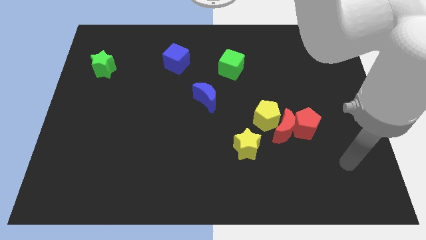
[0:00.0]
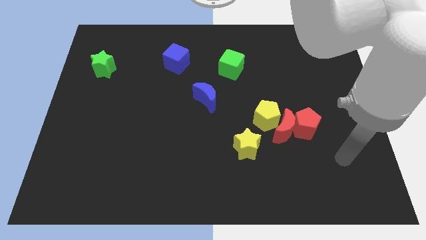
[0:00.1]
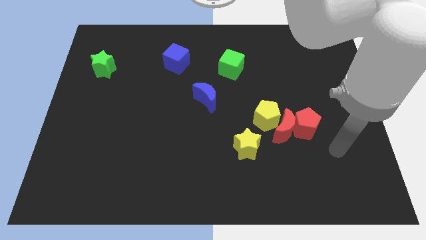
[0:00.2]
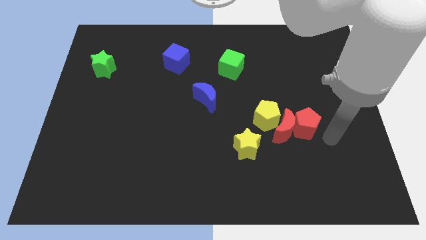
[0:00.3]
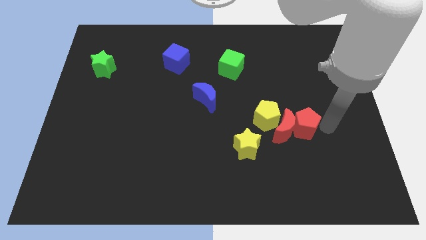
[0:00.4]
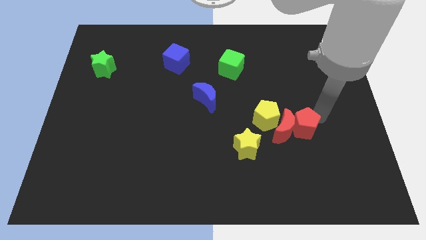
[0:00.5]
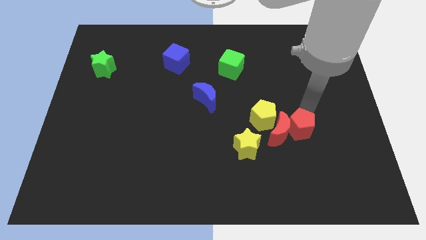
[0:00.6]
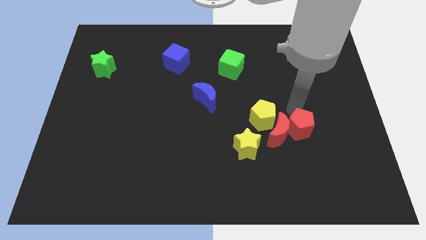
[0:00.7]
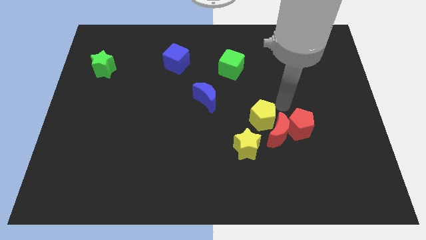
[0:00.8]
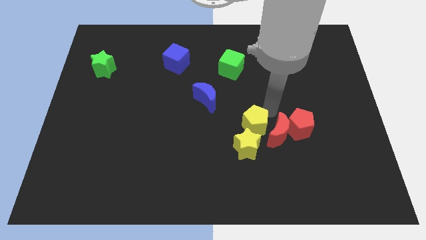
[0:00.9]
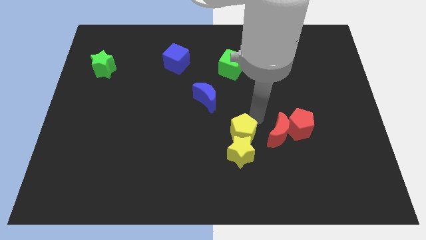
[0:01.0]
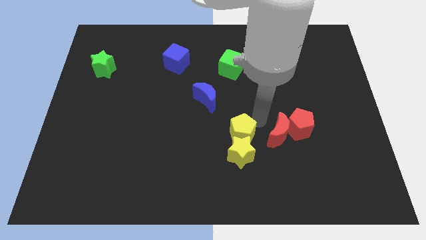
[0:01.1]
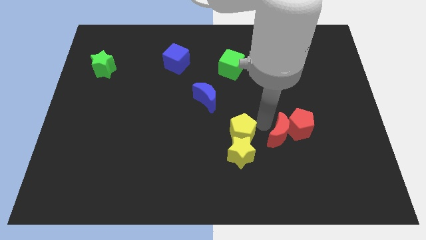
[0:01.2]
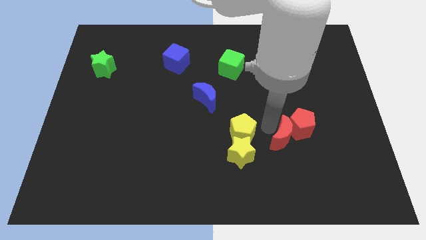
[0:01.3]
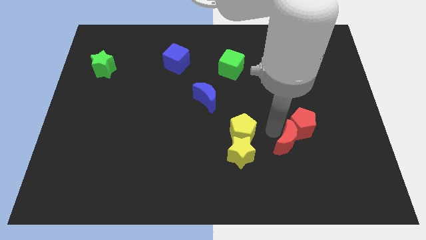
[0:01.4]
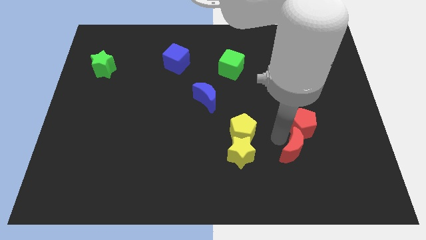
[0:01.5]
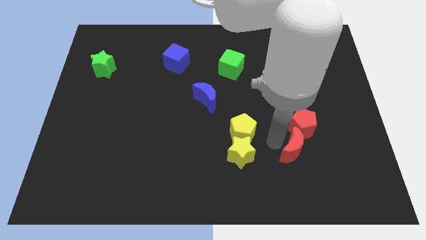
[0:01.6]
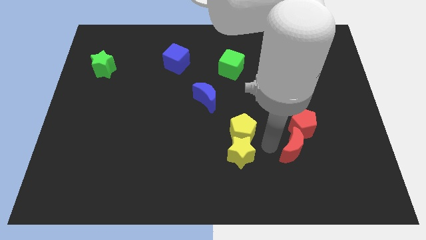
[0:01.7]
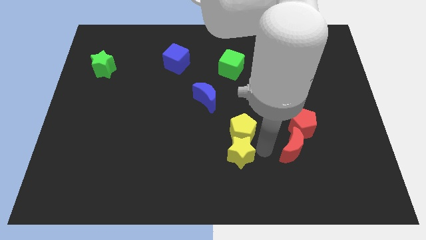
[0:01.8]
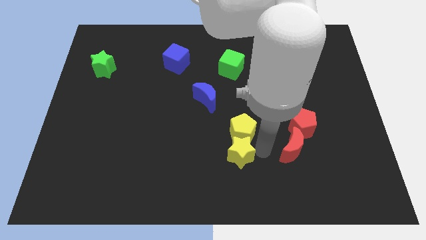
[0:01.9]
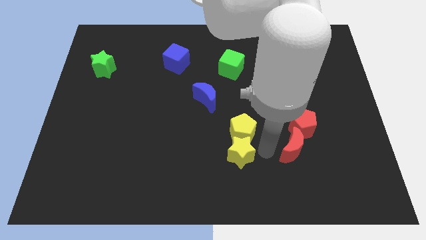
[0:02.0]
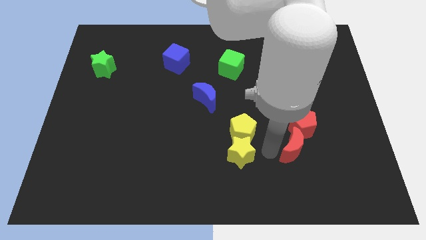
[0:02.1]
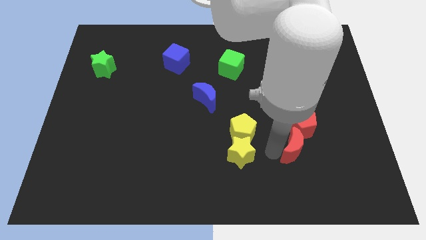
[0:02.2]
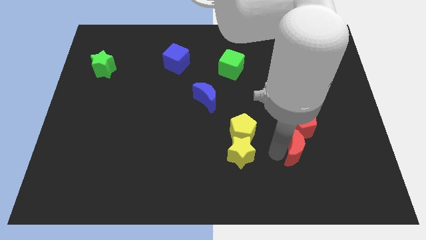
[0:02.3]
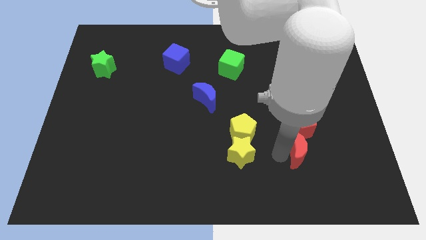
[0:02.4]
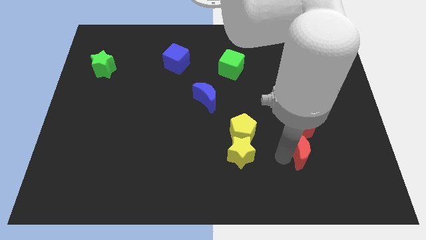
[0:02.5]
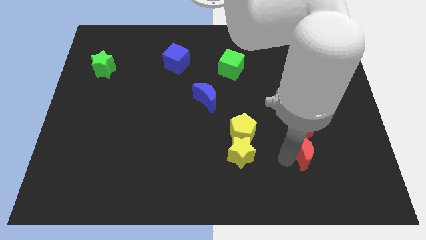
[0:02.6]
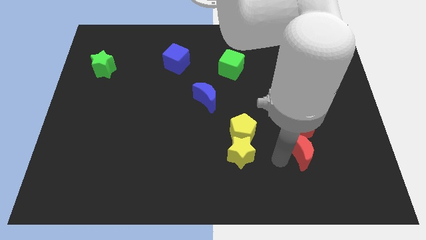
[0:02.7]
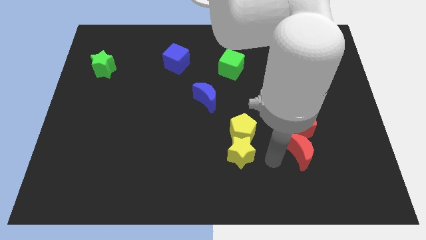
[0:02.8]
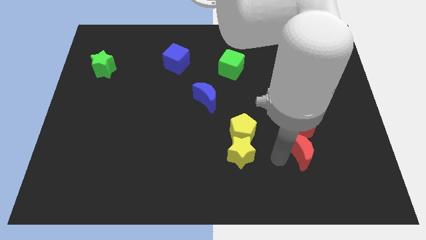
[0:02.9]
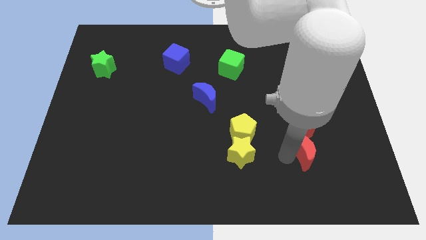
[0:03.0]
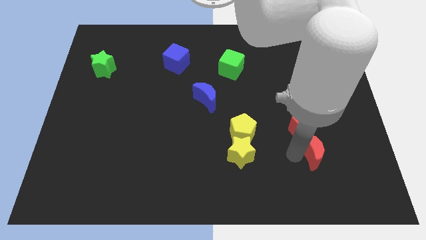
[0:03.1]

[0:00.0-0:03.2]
pull the red moon apart from the group of blocks

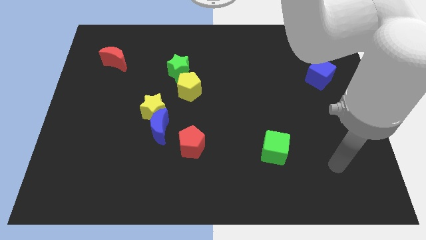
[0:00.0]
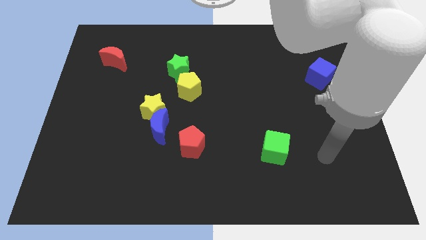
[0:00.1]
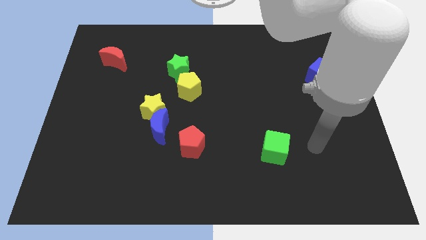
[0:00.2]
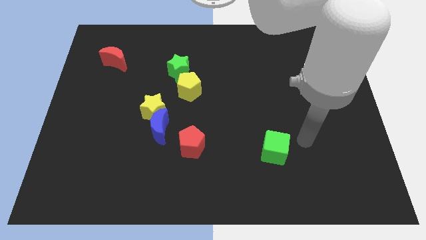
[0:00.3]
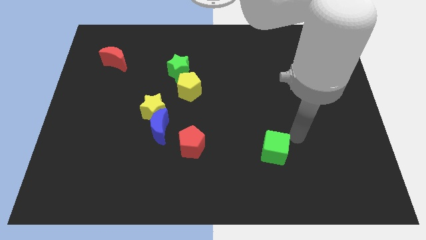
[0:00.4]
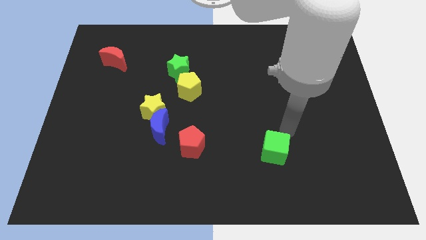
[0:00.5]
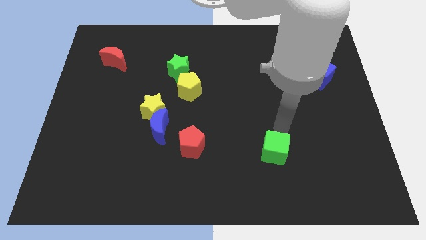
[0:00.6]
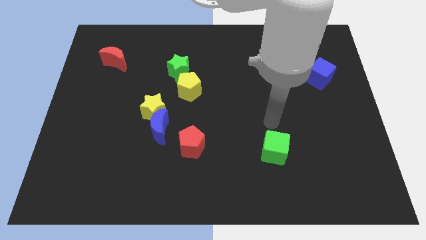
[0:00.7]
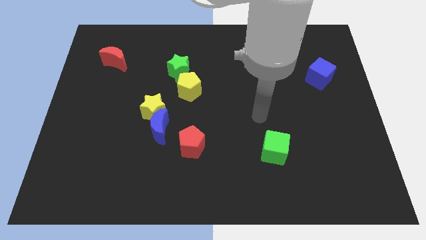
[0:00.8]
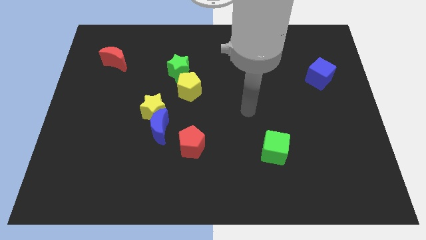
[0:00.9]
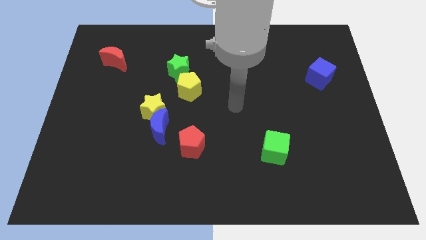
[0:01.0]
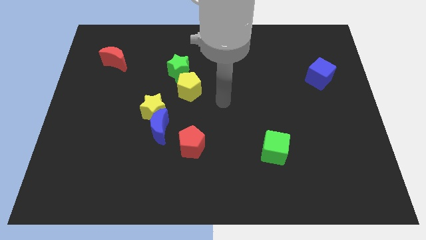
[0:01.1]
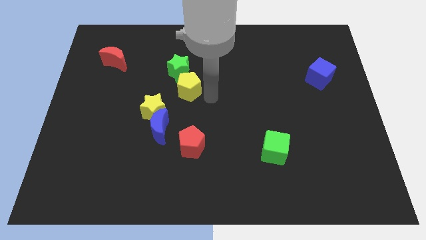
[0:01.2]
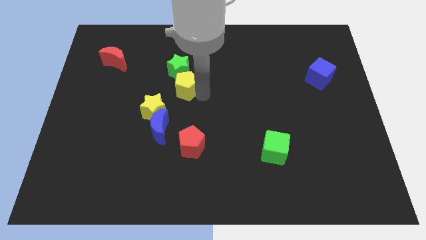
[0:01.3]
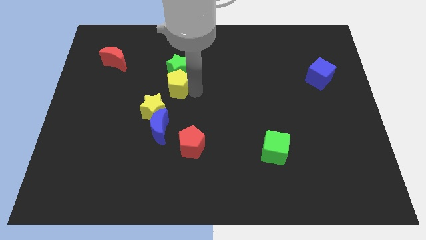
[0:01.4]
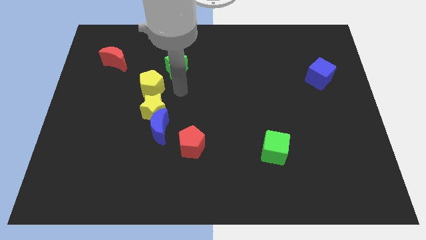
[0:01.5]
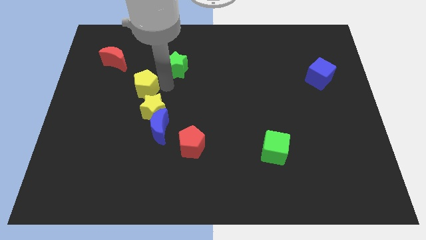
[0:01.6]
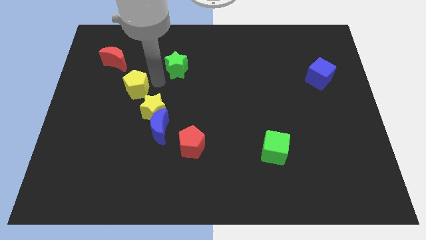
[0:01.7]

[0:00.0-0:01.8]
separate the green star from the yellow pentagon

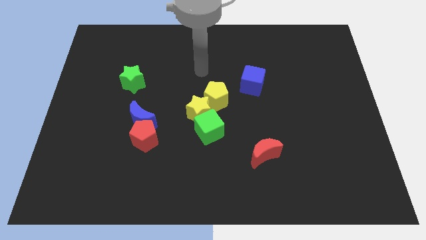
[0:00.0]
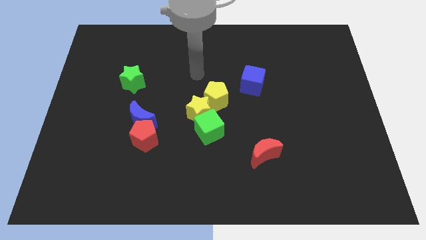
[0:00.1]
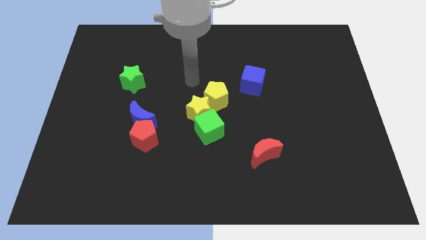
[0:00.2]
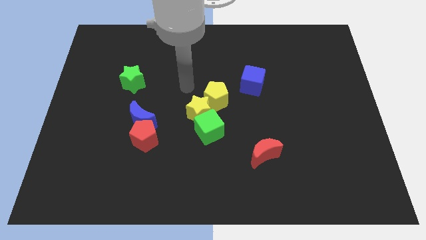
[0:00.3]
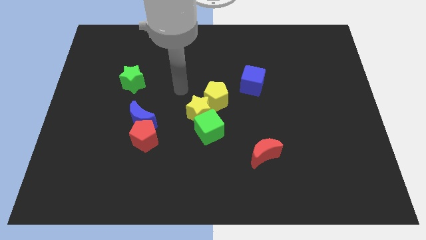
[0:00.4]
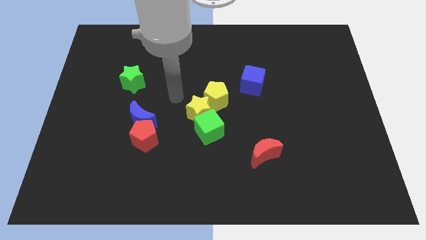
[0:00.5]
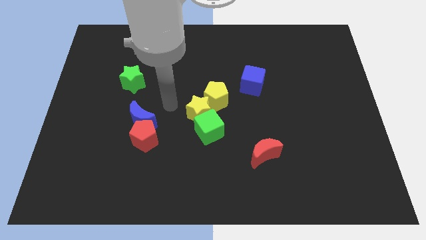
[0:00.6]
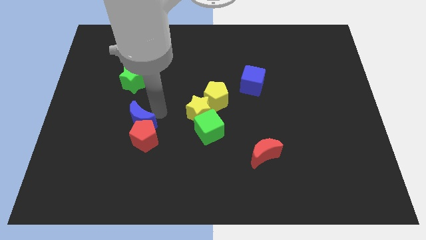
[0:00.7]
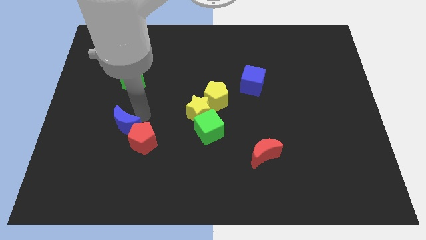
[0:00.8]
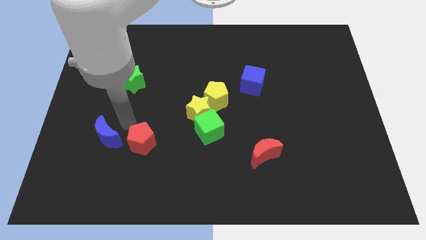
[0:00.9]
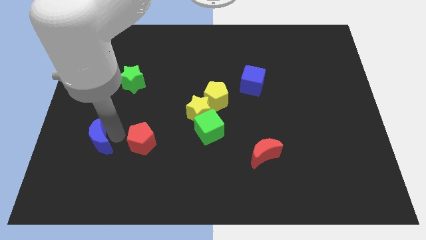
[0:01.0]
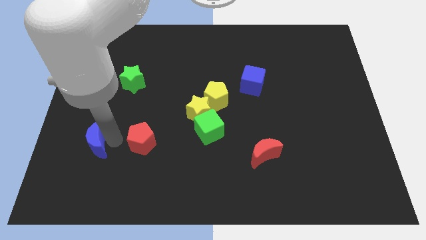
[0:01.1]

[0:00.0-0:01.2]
pull the red pentagon apart from the blue moon

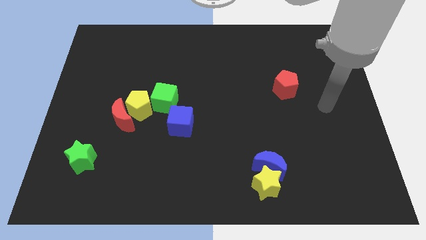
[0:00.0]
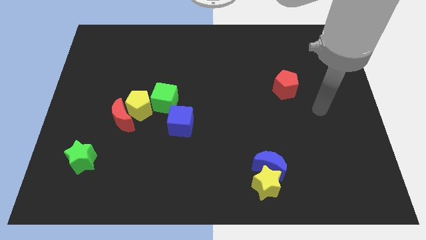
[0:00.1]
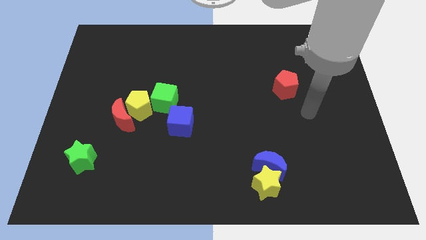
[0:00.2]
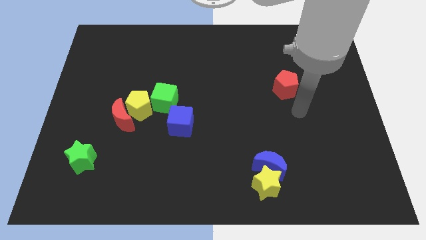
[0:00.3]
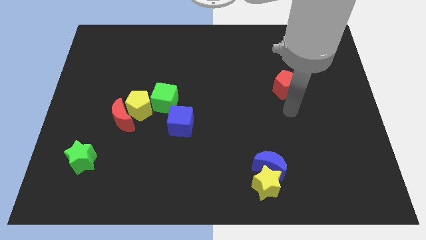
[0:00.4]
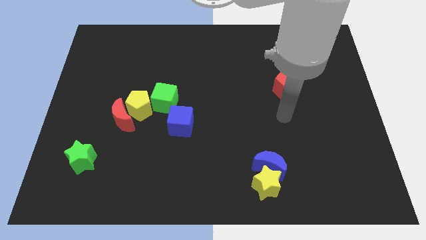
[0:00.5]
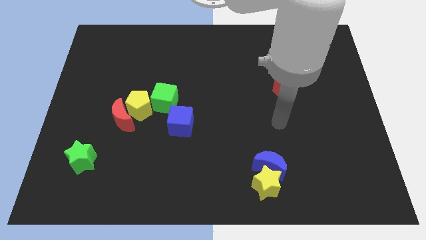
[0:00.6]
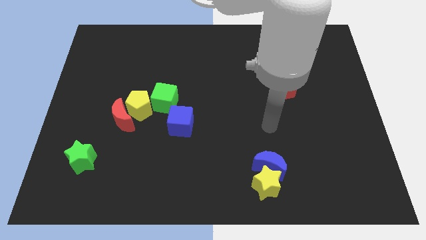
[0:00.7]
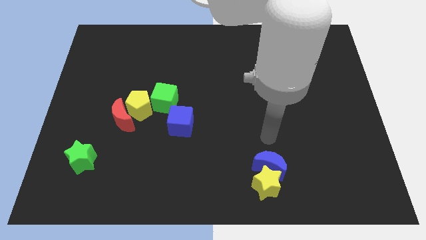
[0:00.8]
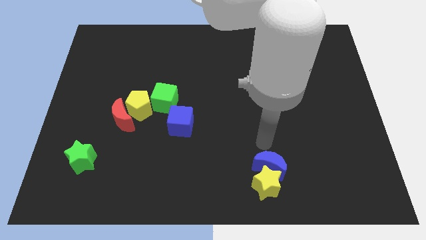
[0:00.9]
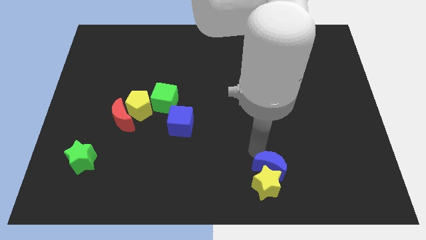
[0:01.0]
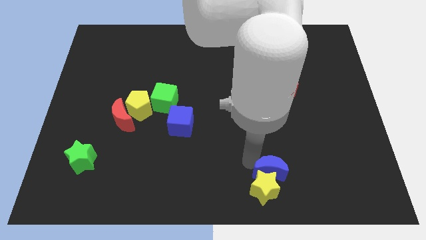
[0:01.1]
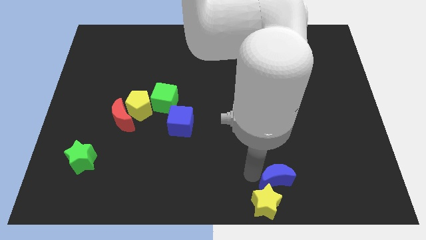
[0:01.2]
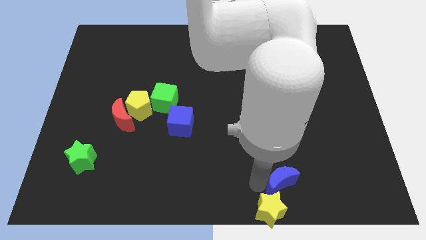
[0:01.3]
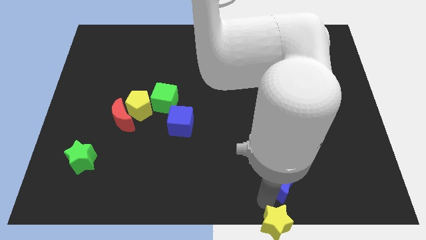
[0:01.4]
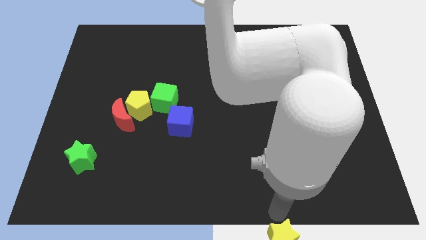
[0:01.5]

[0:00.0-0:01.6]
separate the blue moon from the yellow star

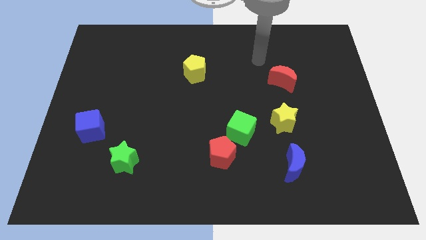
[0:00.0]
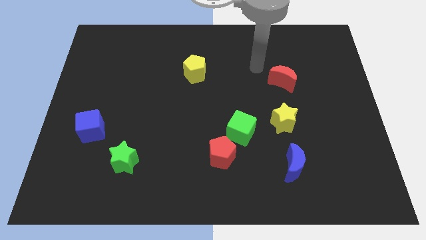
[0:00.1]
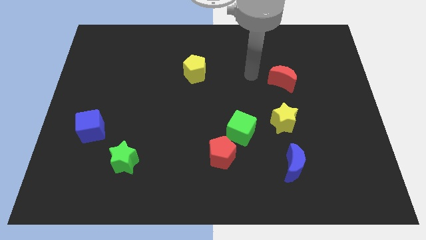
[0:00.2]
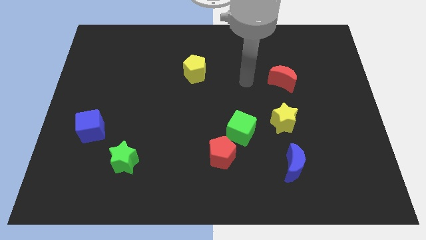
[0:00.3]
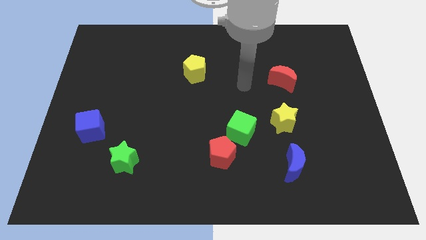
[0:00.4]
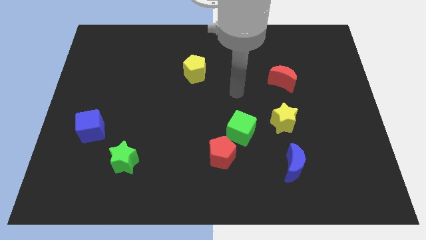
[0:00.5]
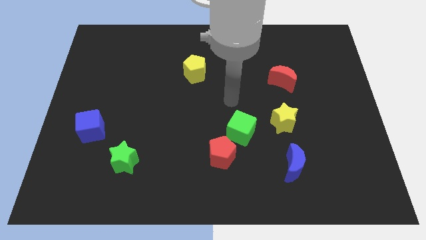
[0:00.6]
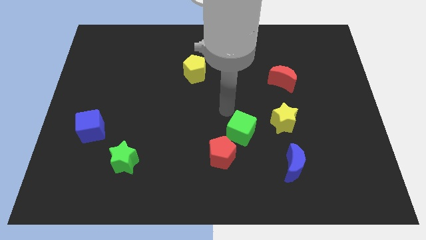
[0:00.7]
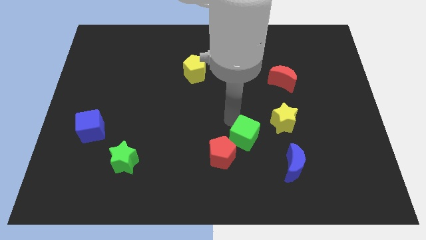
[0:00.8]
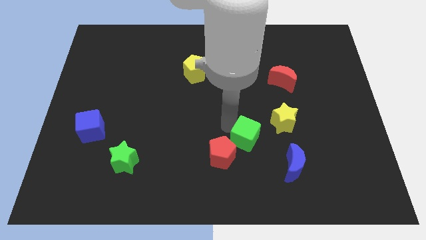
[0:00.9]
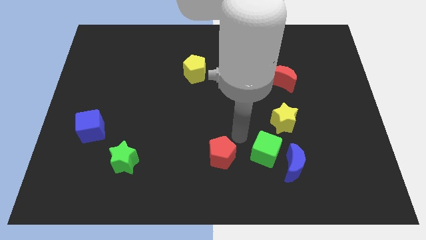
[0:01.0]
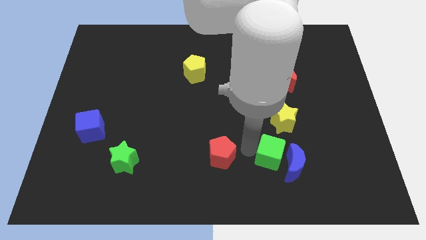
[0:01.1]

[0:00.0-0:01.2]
pull the red pentagon apart from the green cube

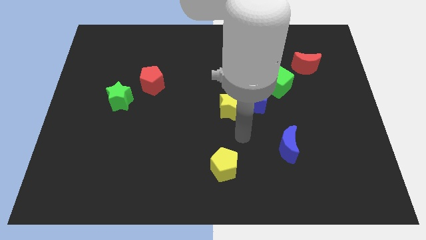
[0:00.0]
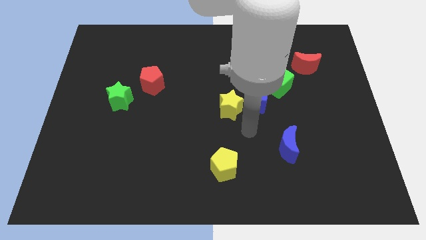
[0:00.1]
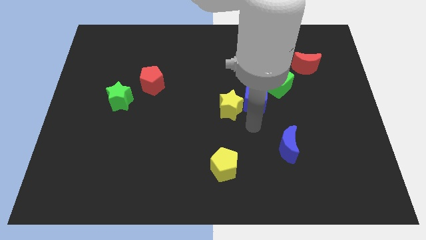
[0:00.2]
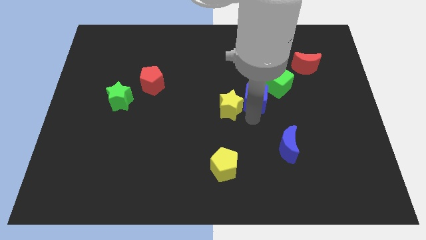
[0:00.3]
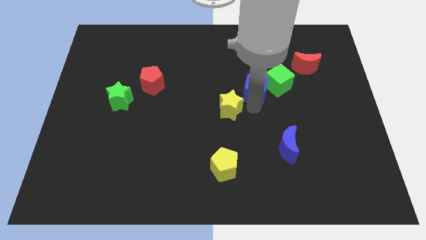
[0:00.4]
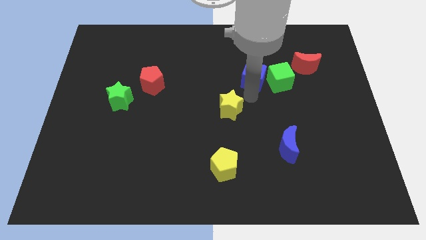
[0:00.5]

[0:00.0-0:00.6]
pull the yellow star apart from the blue cube
